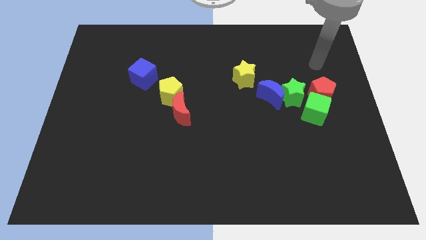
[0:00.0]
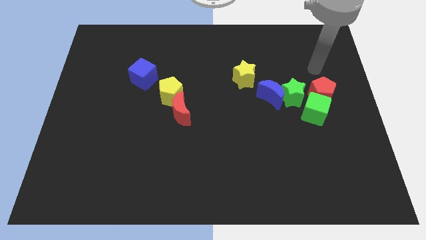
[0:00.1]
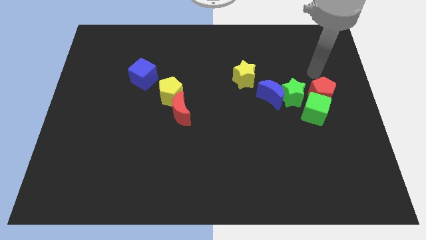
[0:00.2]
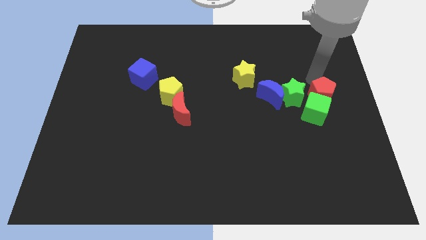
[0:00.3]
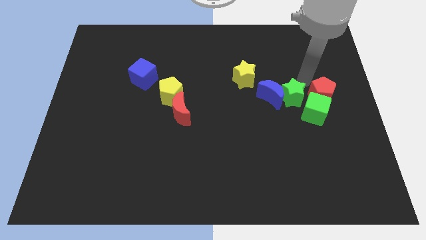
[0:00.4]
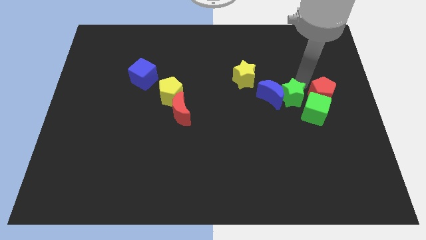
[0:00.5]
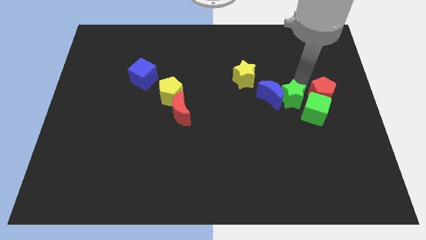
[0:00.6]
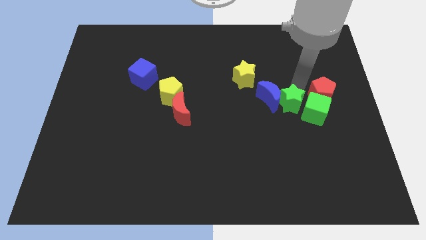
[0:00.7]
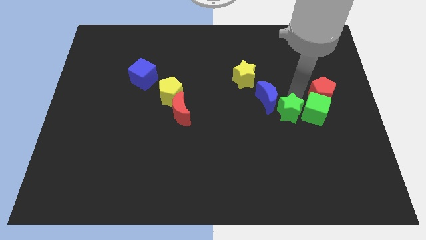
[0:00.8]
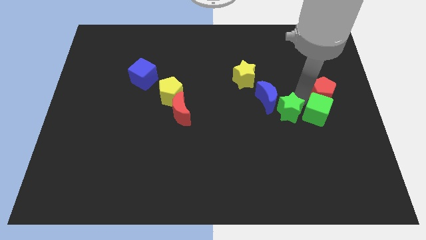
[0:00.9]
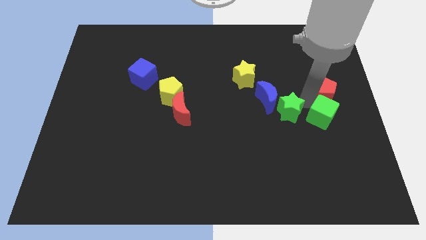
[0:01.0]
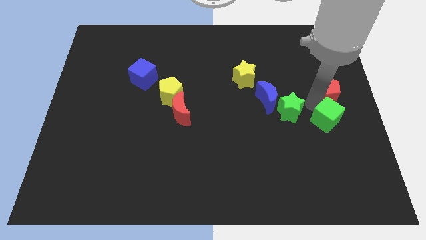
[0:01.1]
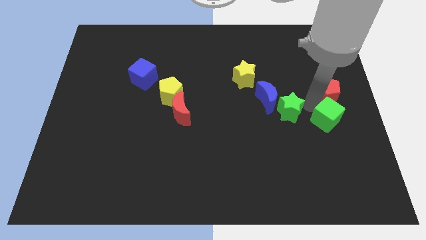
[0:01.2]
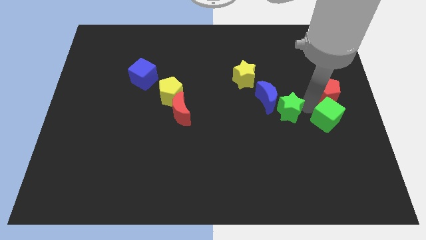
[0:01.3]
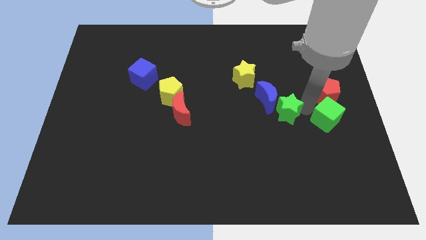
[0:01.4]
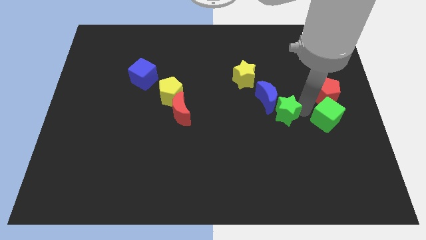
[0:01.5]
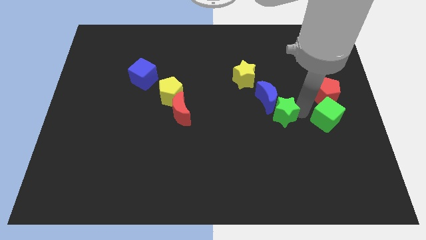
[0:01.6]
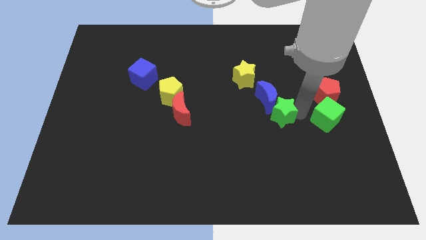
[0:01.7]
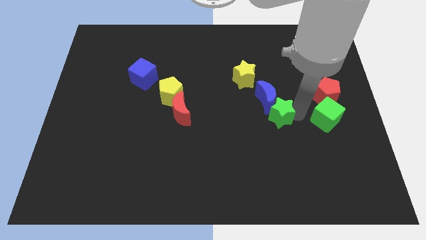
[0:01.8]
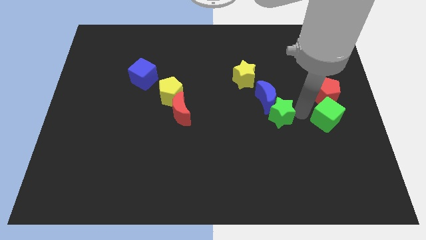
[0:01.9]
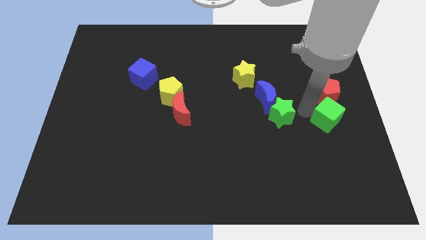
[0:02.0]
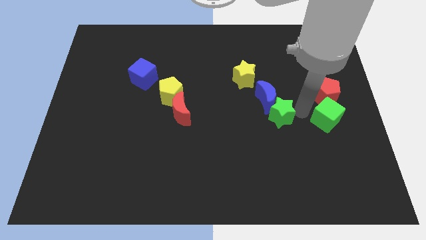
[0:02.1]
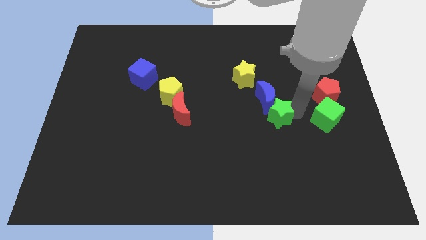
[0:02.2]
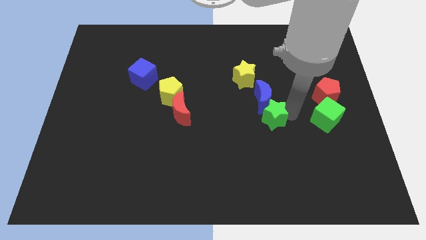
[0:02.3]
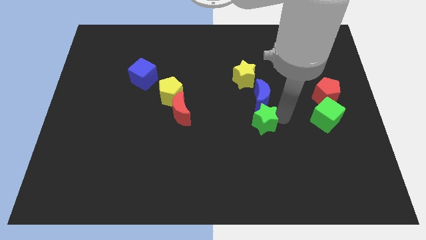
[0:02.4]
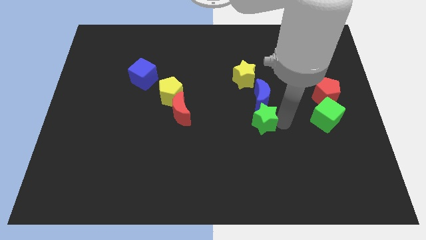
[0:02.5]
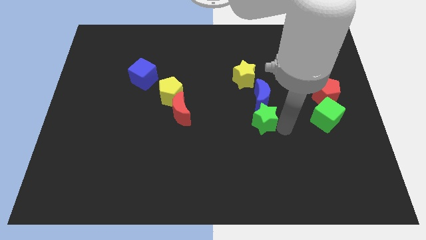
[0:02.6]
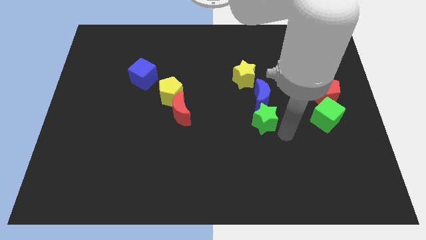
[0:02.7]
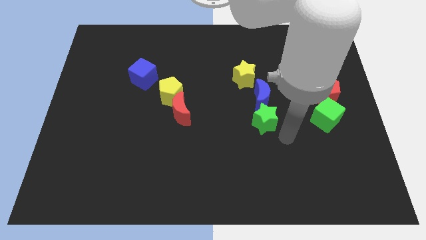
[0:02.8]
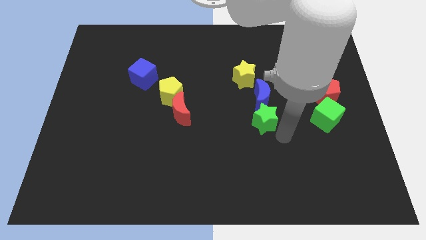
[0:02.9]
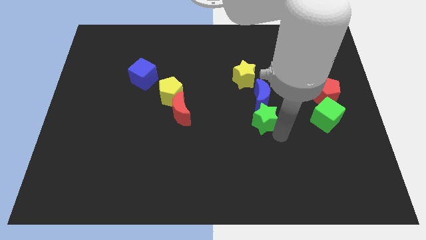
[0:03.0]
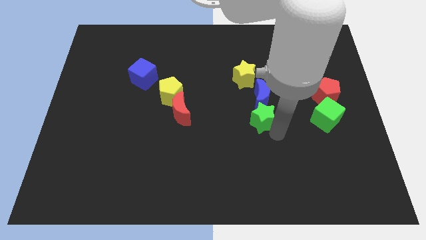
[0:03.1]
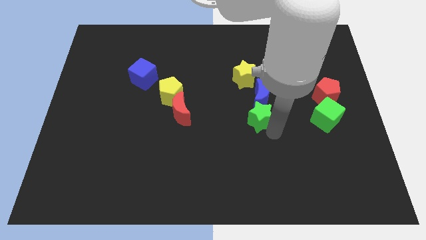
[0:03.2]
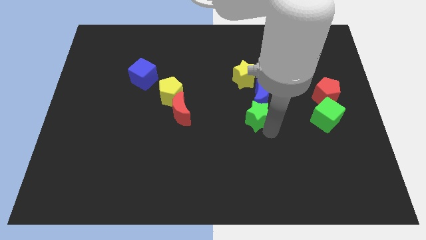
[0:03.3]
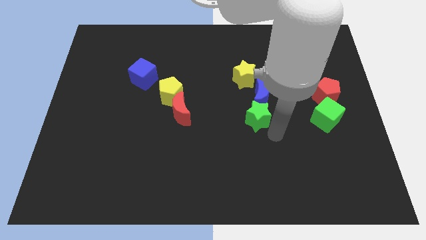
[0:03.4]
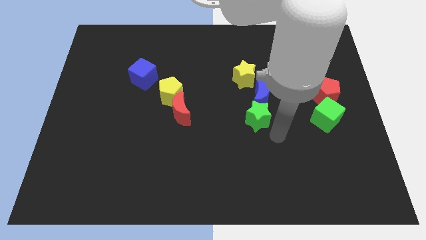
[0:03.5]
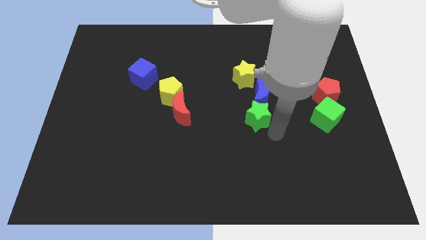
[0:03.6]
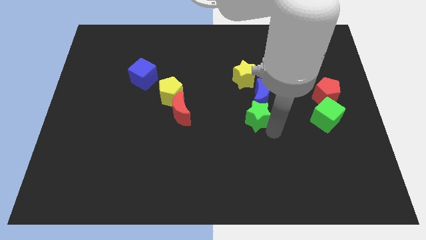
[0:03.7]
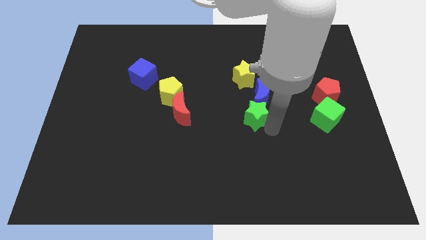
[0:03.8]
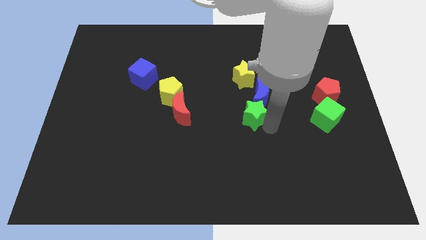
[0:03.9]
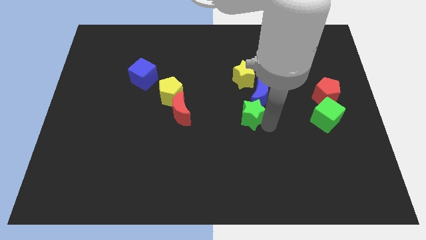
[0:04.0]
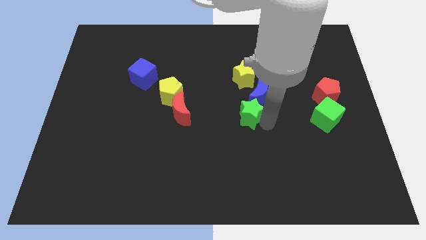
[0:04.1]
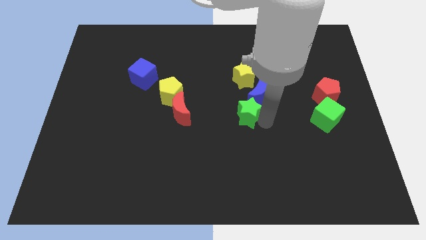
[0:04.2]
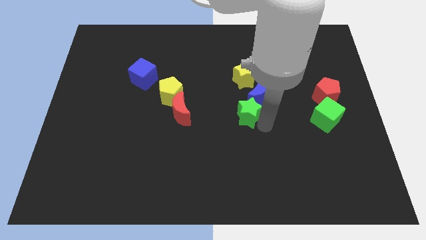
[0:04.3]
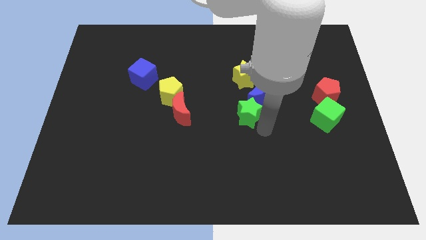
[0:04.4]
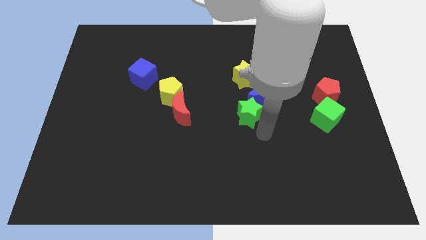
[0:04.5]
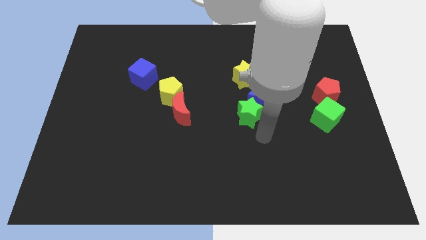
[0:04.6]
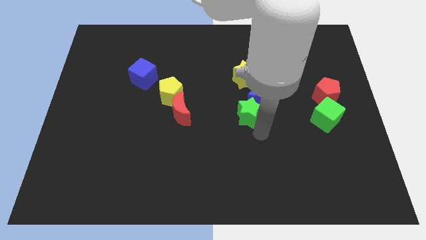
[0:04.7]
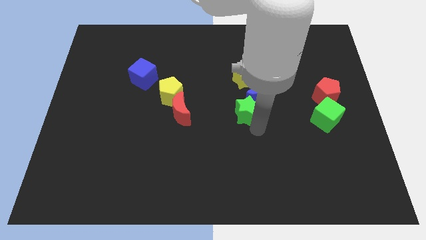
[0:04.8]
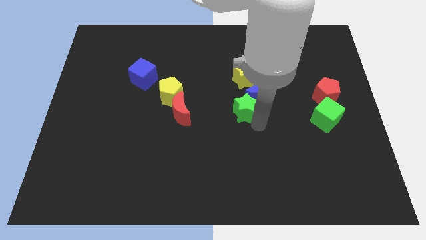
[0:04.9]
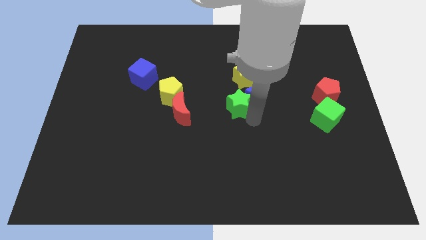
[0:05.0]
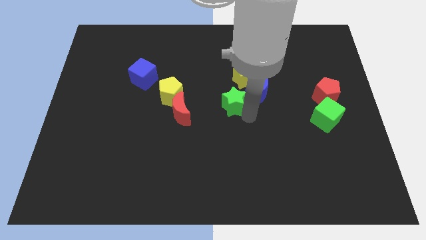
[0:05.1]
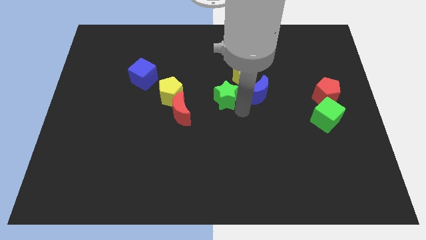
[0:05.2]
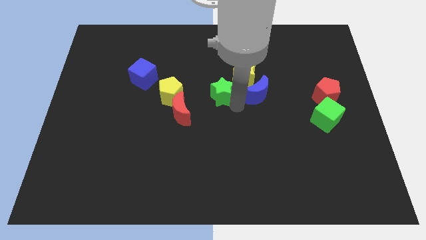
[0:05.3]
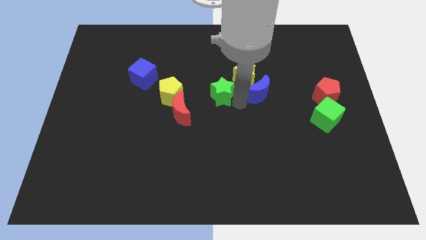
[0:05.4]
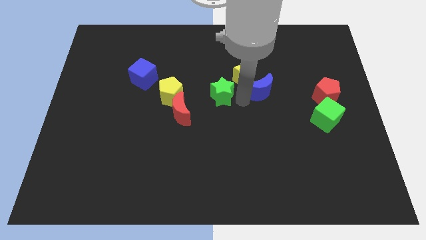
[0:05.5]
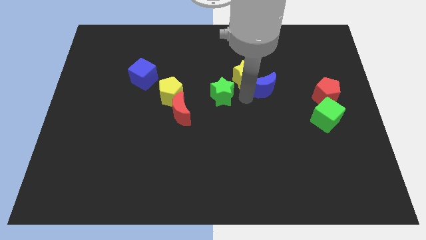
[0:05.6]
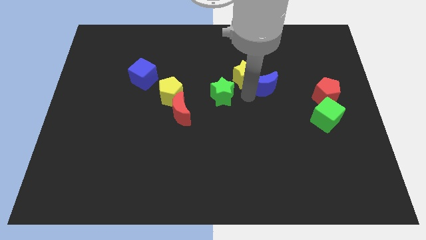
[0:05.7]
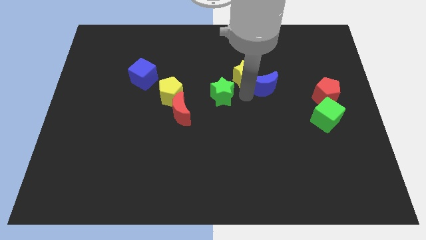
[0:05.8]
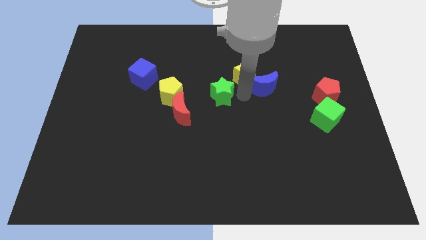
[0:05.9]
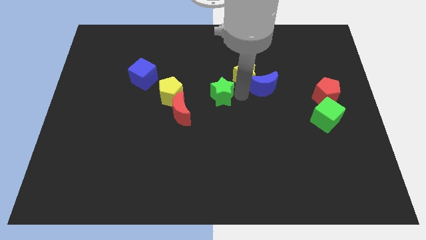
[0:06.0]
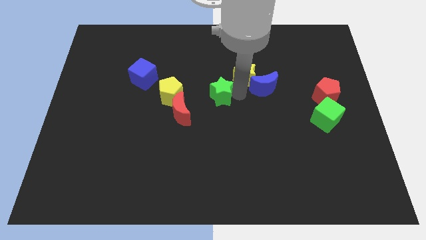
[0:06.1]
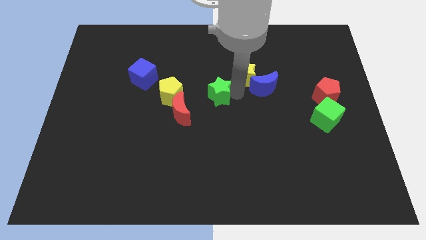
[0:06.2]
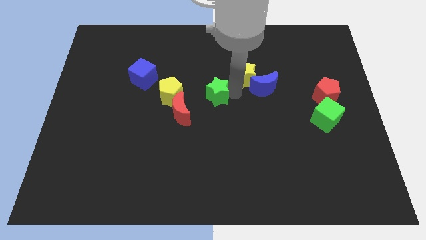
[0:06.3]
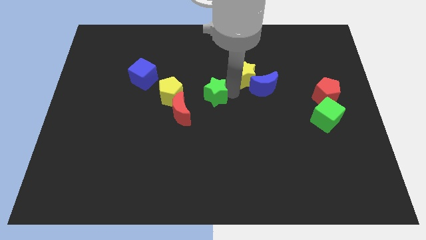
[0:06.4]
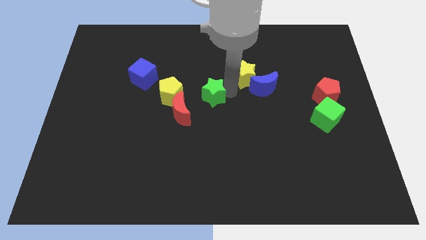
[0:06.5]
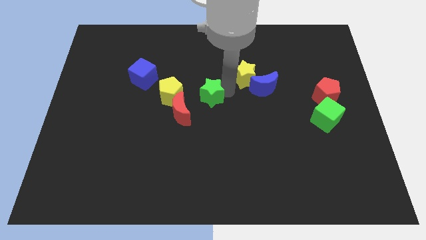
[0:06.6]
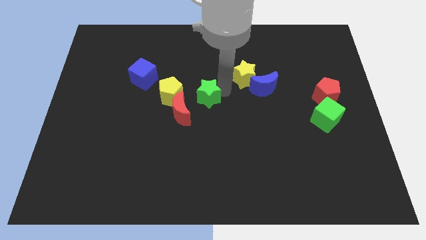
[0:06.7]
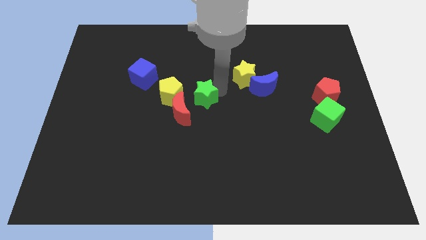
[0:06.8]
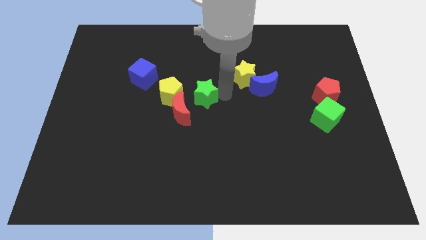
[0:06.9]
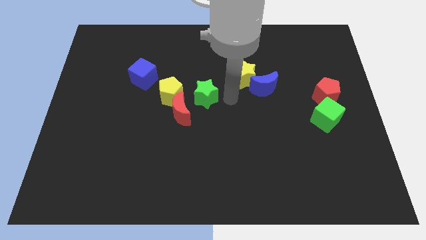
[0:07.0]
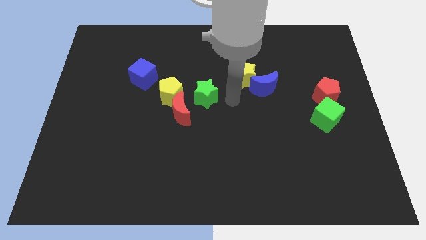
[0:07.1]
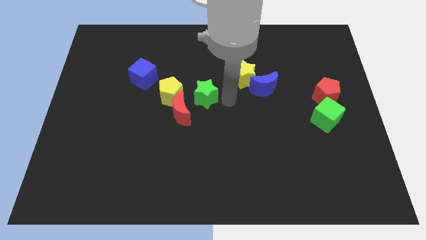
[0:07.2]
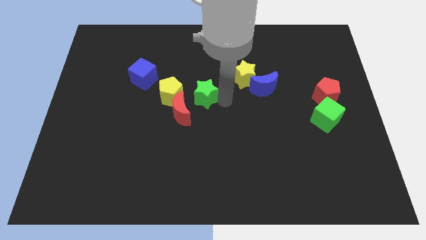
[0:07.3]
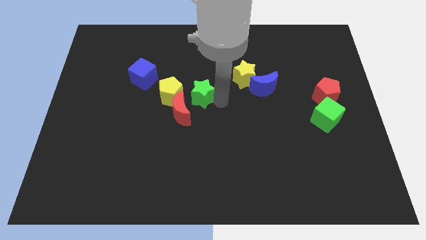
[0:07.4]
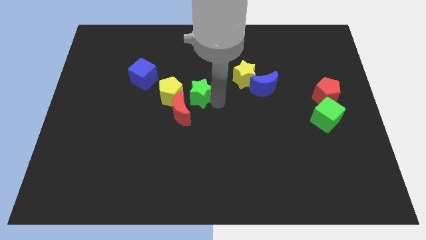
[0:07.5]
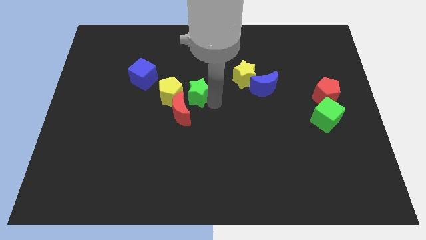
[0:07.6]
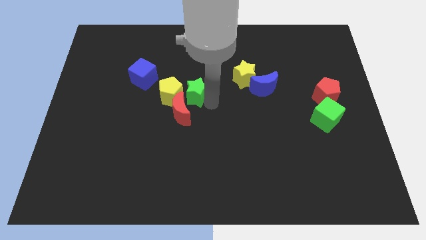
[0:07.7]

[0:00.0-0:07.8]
push the green star to the yellow pentagon
